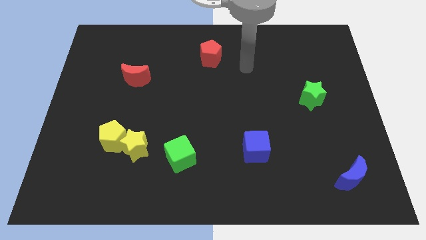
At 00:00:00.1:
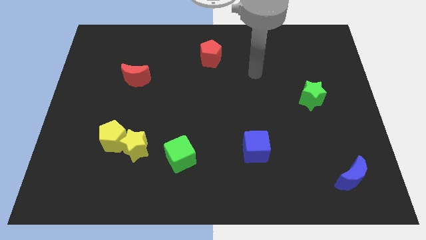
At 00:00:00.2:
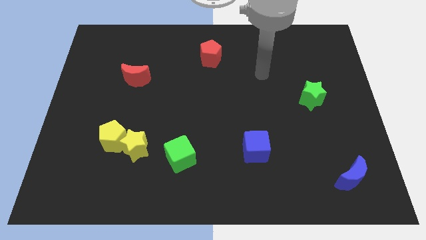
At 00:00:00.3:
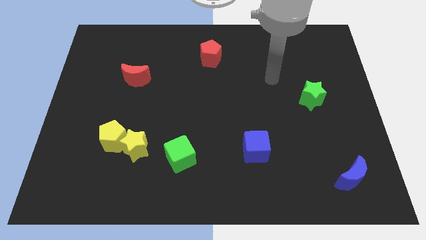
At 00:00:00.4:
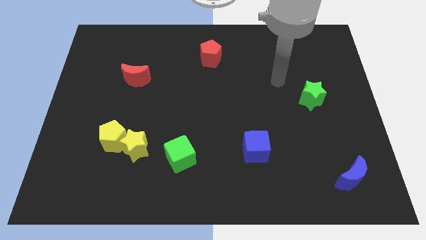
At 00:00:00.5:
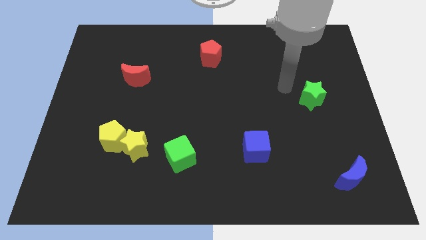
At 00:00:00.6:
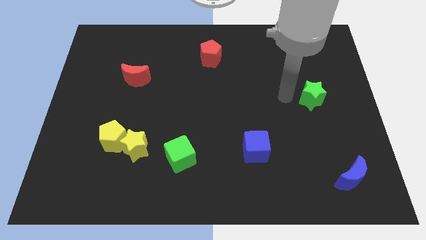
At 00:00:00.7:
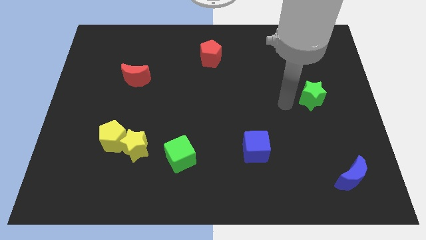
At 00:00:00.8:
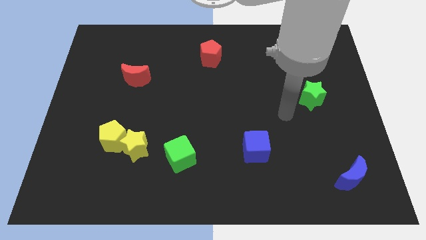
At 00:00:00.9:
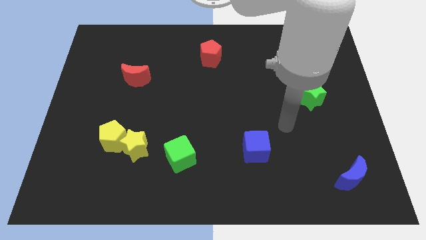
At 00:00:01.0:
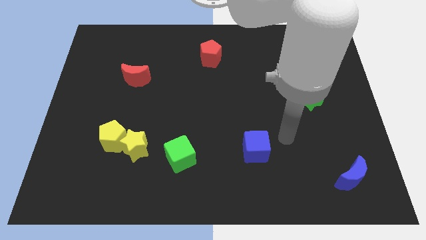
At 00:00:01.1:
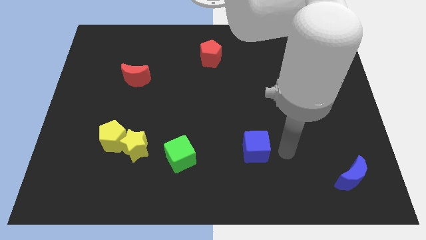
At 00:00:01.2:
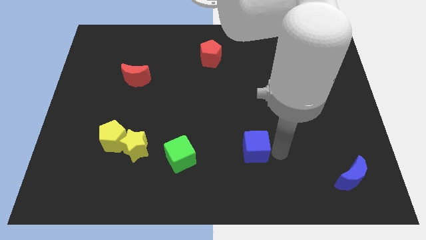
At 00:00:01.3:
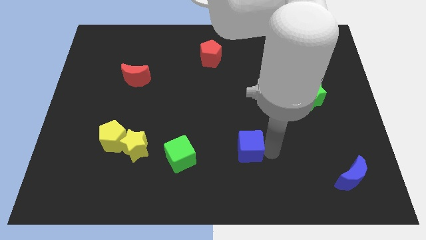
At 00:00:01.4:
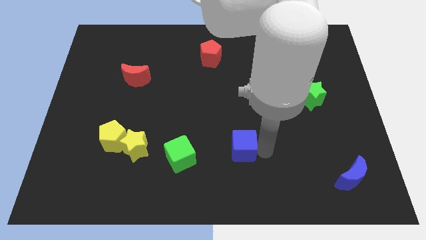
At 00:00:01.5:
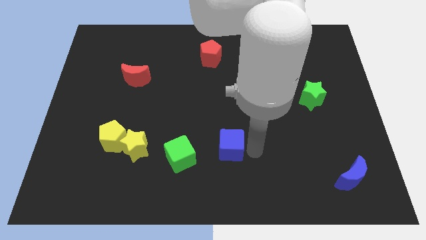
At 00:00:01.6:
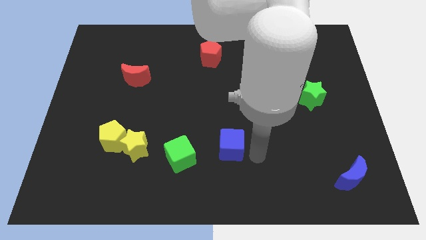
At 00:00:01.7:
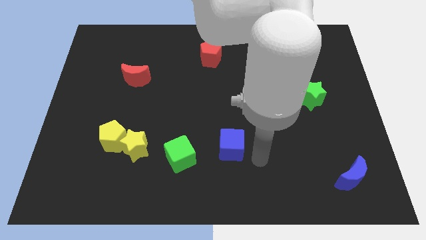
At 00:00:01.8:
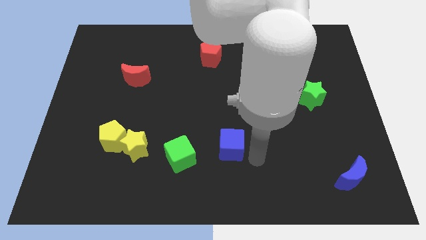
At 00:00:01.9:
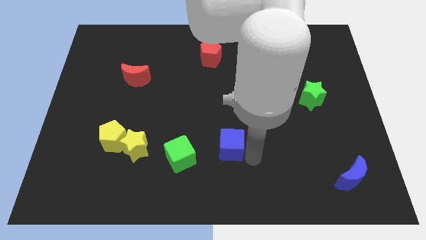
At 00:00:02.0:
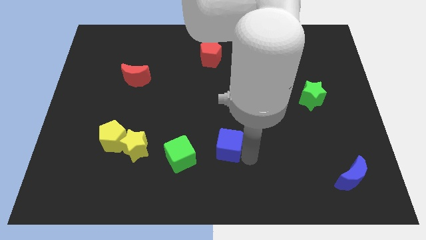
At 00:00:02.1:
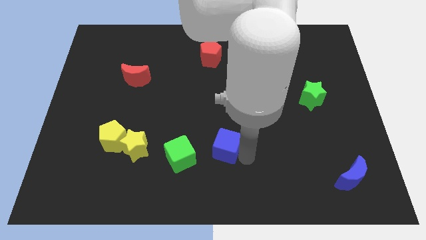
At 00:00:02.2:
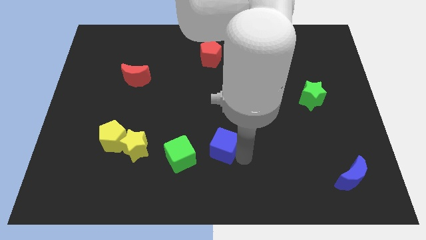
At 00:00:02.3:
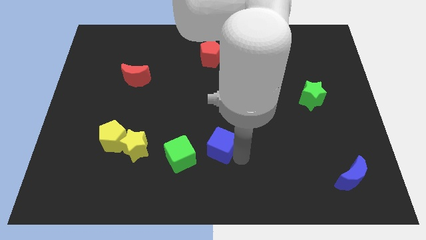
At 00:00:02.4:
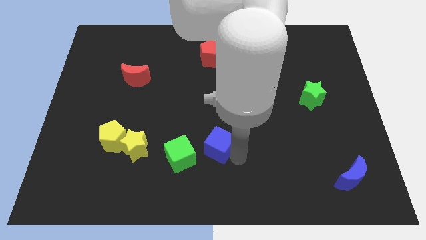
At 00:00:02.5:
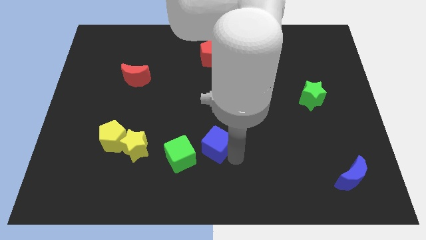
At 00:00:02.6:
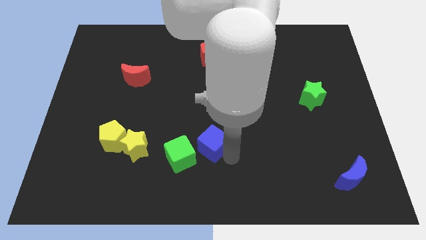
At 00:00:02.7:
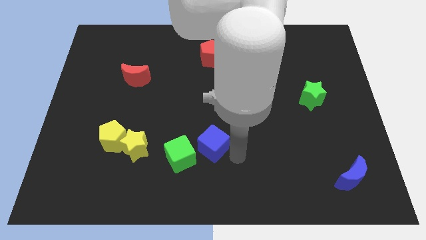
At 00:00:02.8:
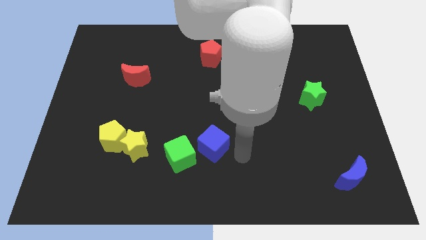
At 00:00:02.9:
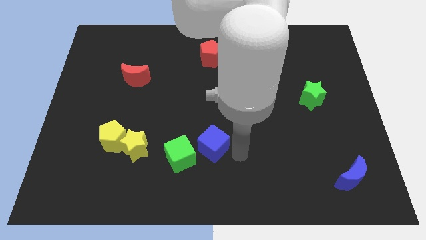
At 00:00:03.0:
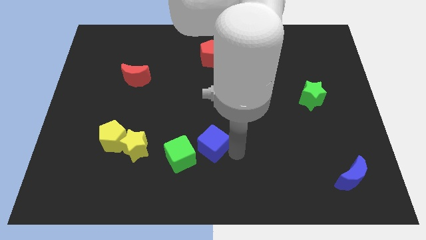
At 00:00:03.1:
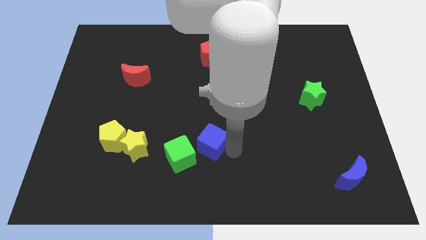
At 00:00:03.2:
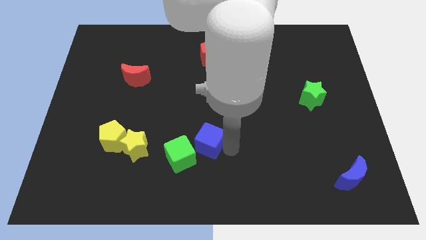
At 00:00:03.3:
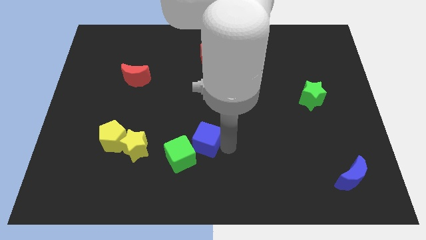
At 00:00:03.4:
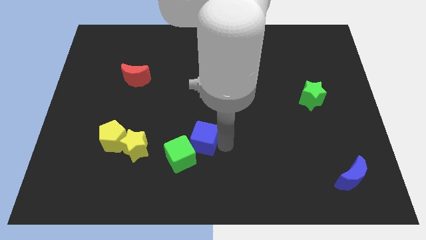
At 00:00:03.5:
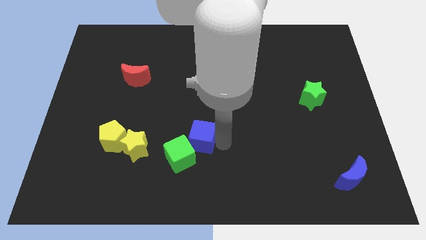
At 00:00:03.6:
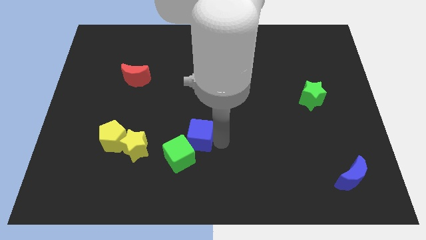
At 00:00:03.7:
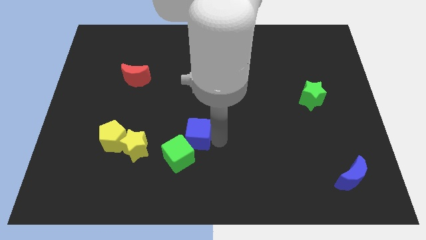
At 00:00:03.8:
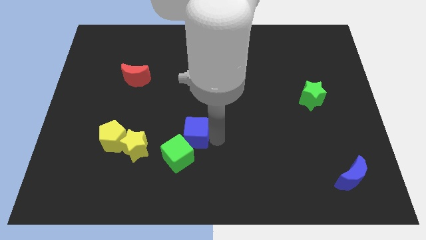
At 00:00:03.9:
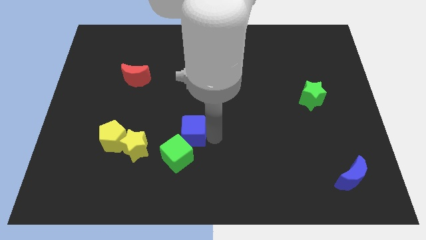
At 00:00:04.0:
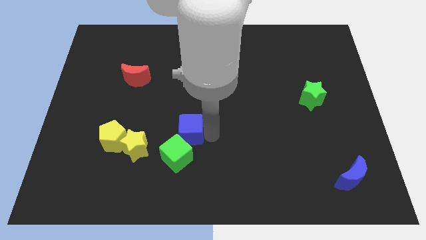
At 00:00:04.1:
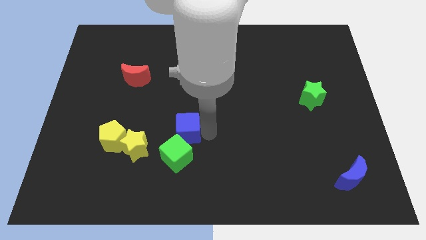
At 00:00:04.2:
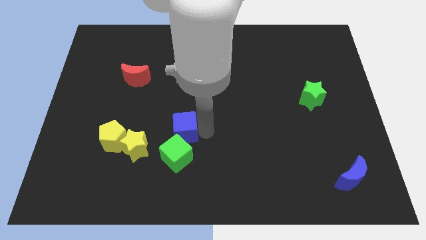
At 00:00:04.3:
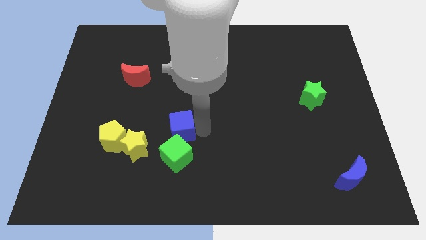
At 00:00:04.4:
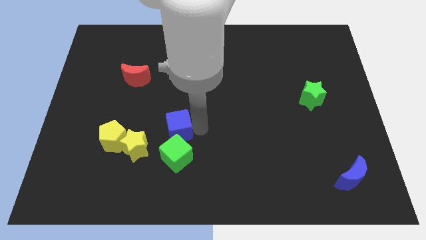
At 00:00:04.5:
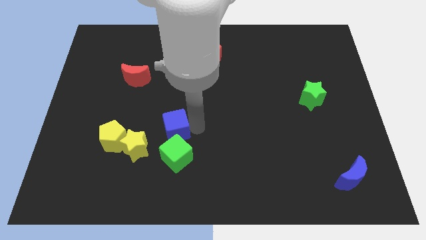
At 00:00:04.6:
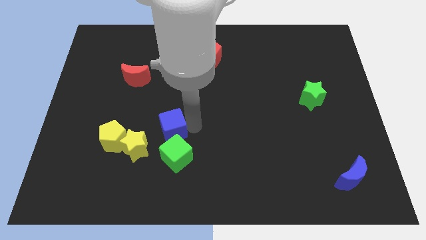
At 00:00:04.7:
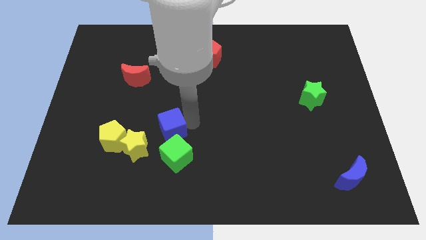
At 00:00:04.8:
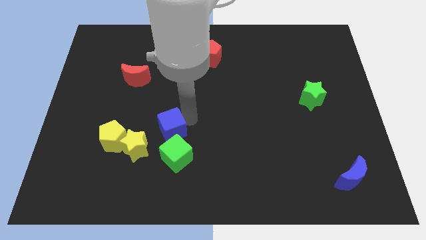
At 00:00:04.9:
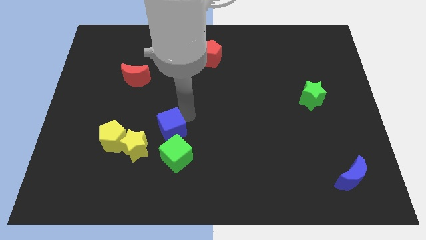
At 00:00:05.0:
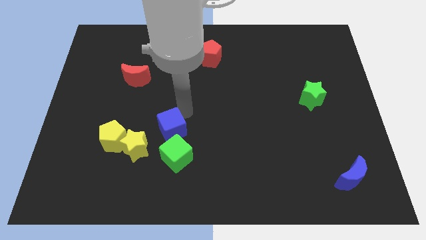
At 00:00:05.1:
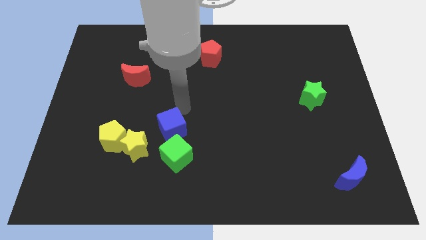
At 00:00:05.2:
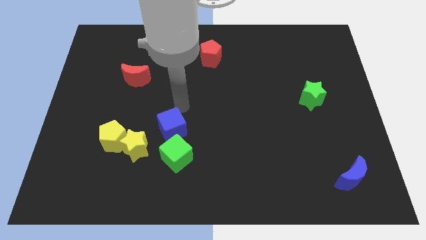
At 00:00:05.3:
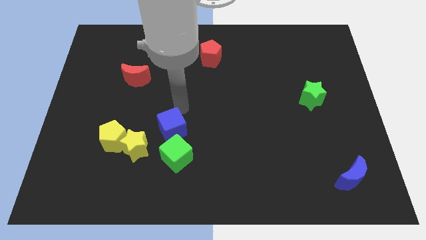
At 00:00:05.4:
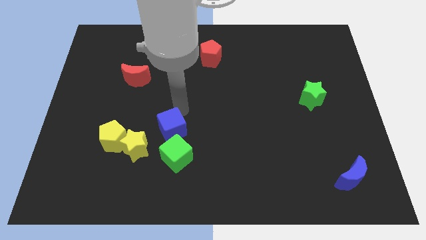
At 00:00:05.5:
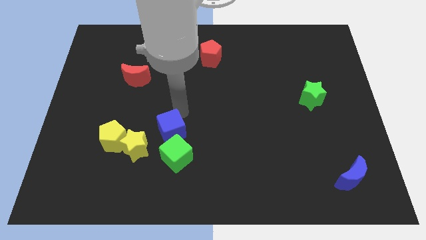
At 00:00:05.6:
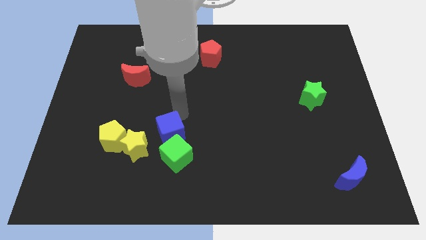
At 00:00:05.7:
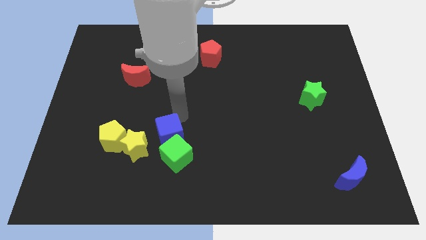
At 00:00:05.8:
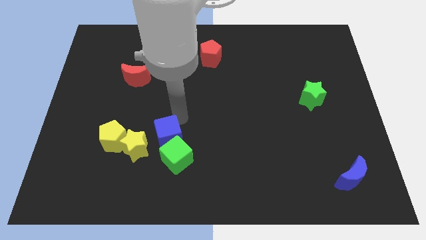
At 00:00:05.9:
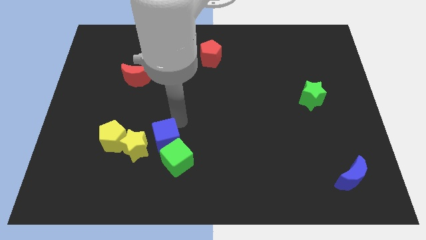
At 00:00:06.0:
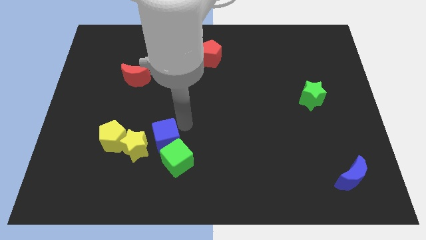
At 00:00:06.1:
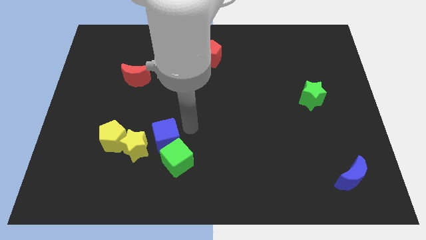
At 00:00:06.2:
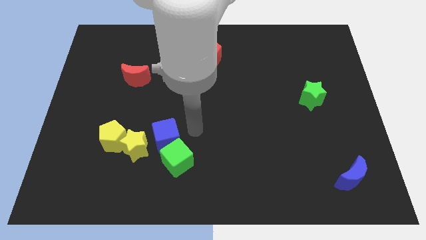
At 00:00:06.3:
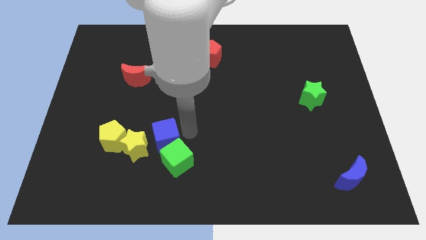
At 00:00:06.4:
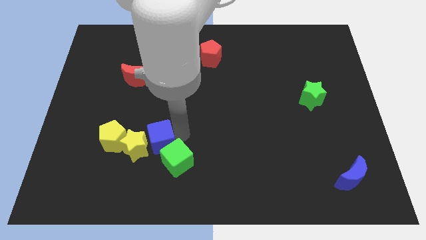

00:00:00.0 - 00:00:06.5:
move the blue cube towards the yellow star
